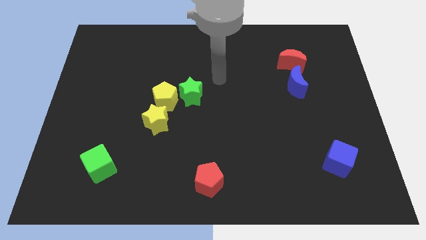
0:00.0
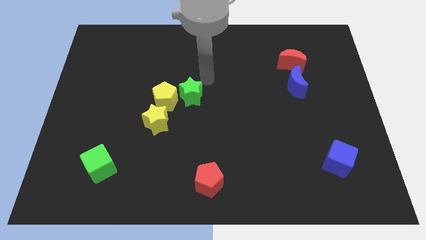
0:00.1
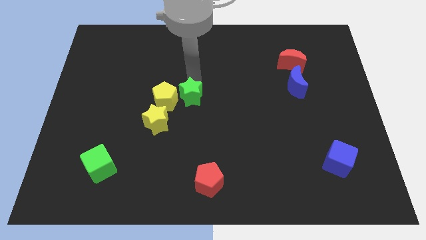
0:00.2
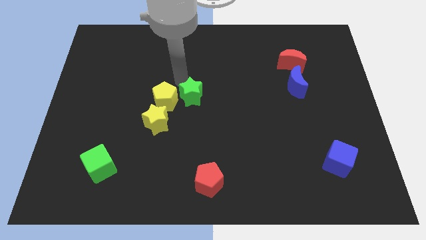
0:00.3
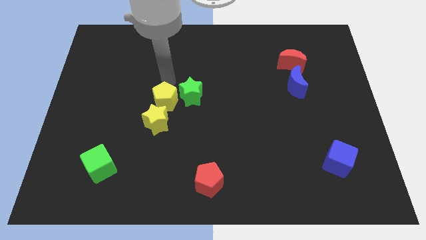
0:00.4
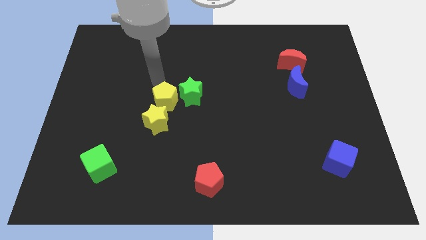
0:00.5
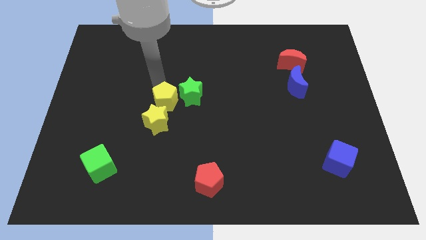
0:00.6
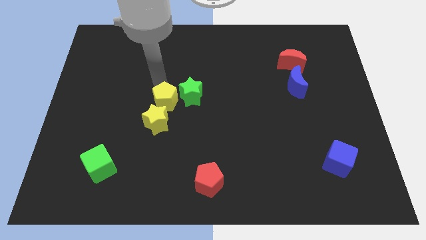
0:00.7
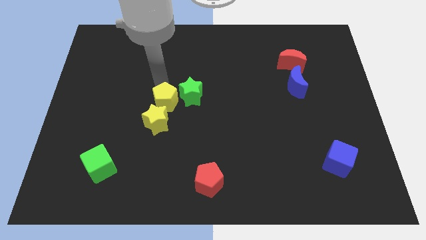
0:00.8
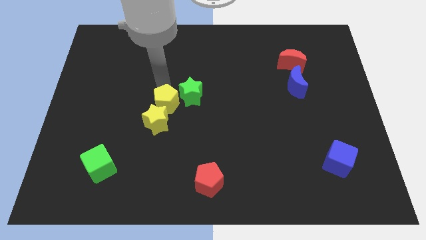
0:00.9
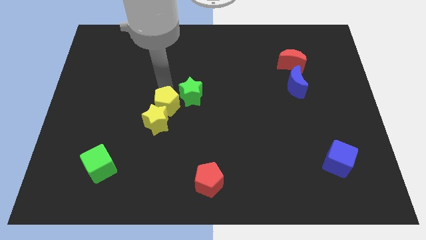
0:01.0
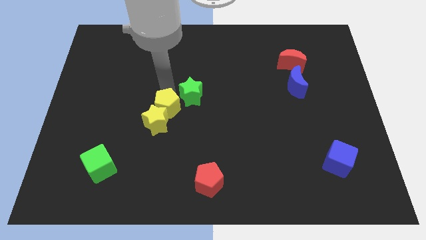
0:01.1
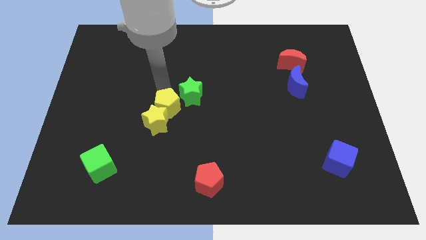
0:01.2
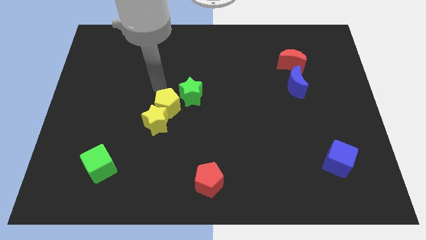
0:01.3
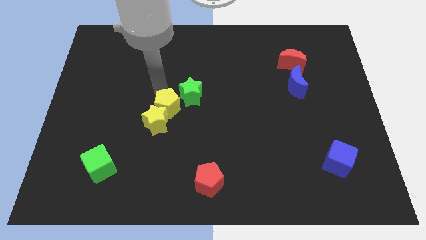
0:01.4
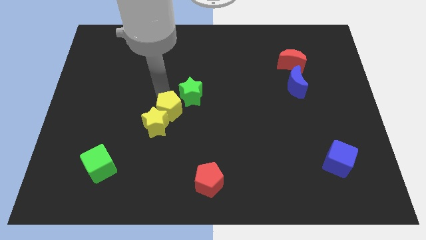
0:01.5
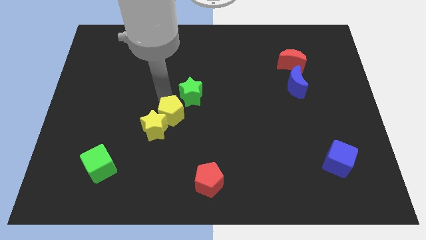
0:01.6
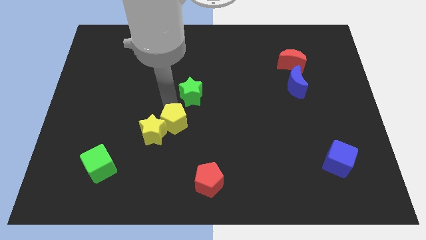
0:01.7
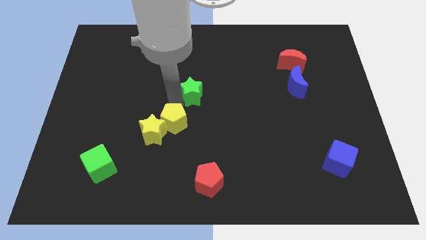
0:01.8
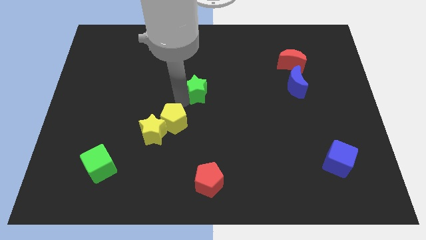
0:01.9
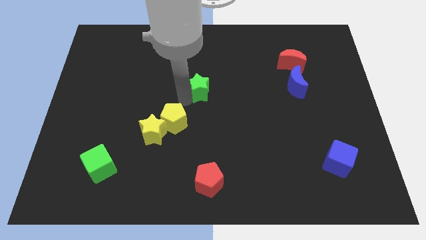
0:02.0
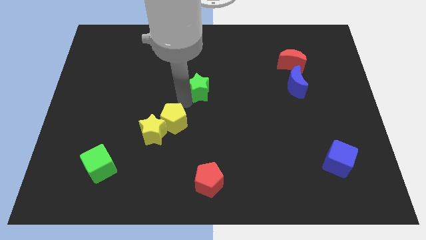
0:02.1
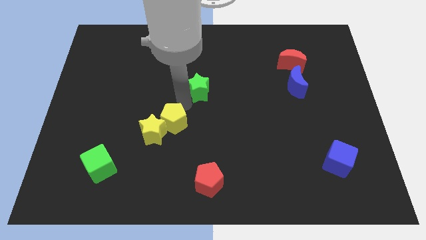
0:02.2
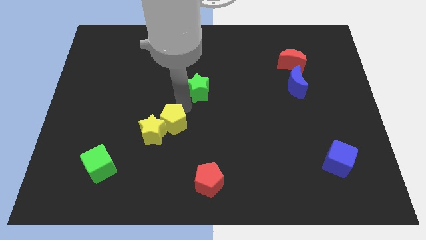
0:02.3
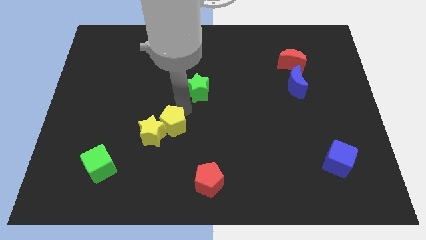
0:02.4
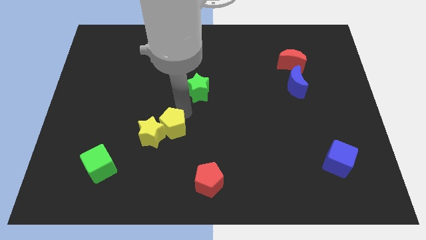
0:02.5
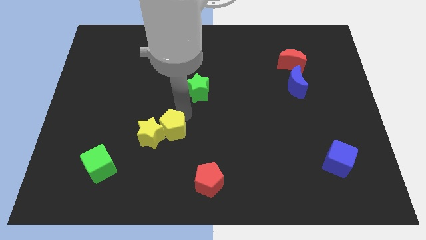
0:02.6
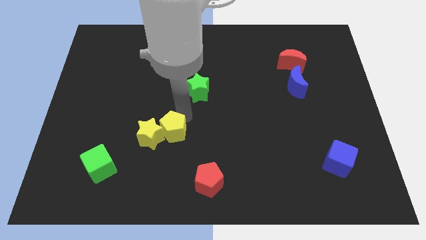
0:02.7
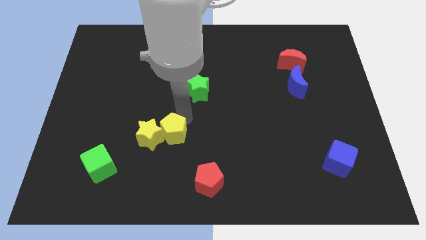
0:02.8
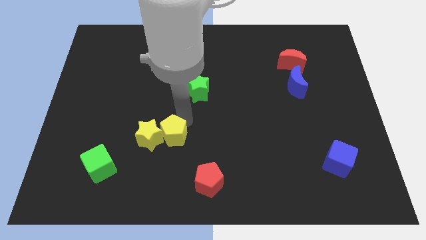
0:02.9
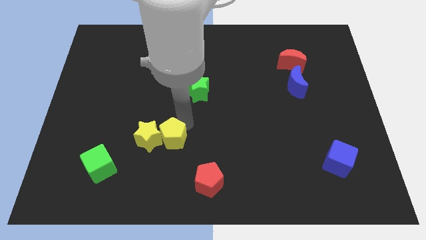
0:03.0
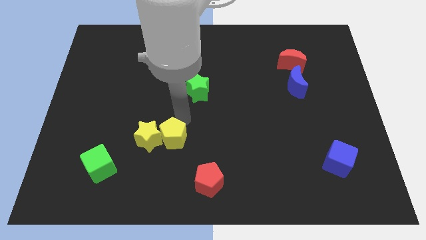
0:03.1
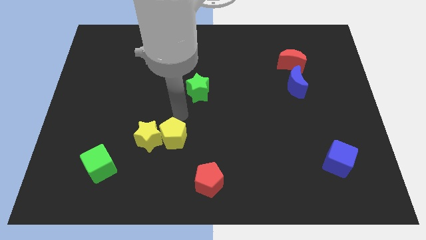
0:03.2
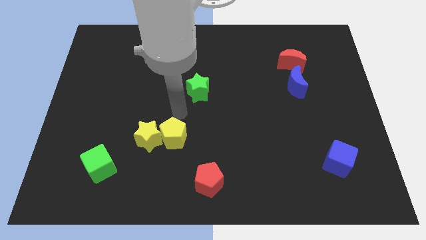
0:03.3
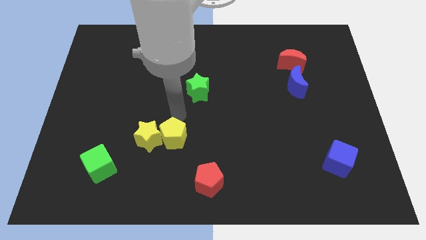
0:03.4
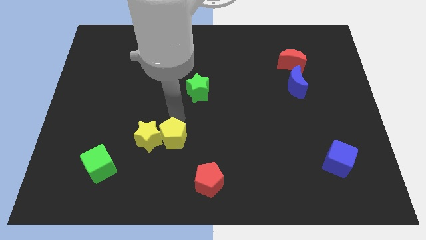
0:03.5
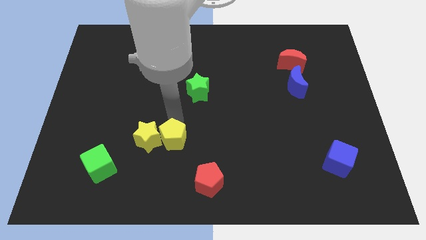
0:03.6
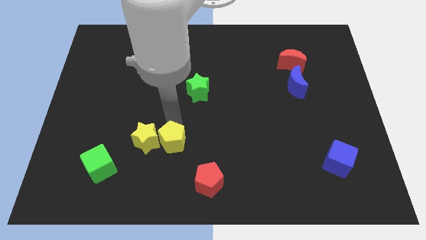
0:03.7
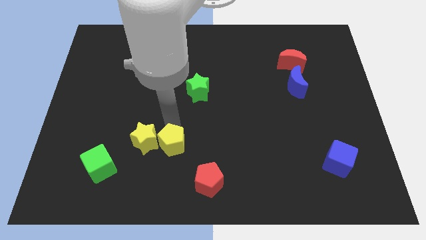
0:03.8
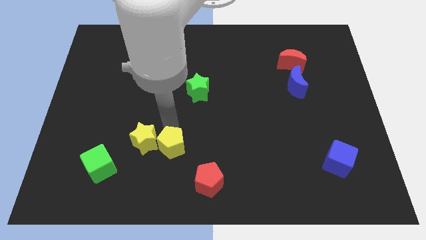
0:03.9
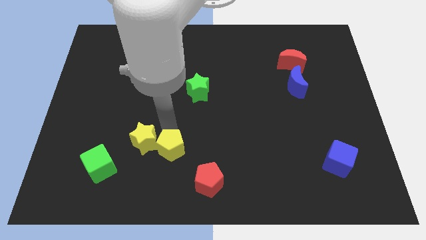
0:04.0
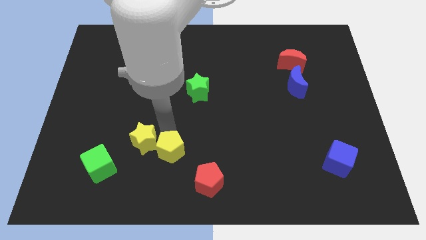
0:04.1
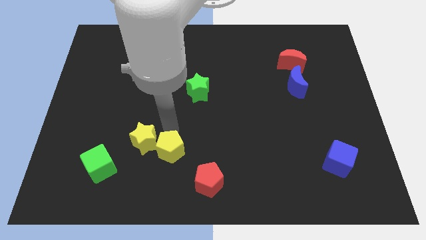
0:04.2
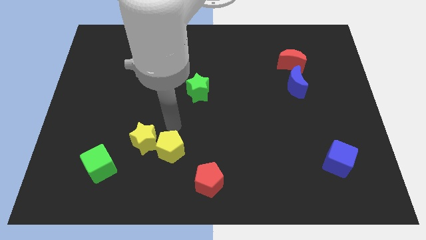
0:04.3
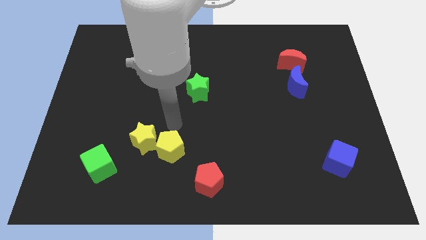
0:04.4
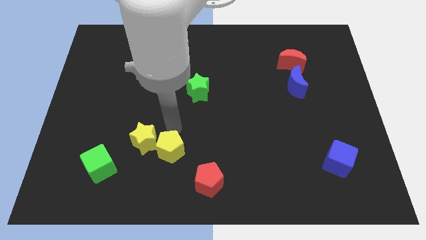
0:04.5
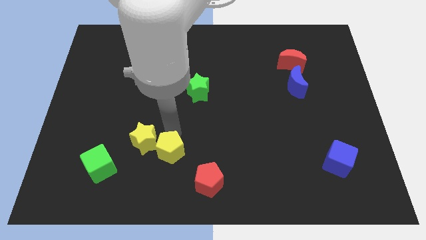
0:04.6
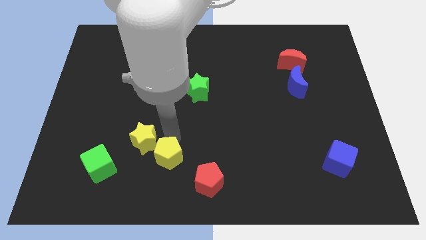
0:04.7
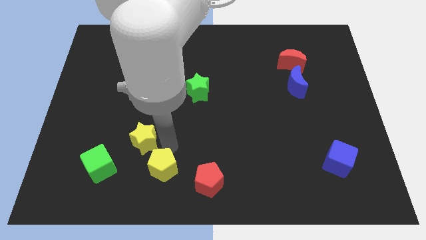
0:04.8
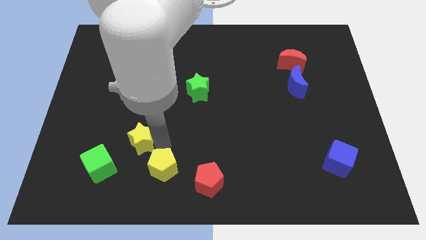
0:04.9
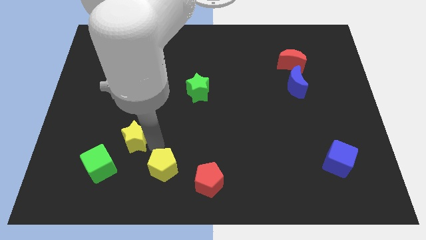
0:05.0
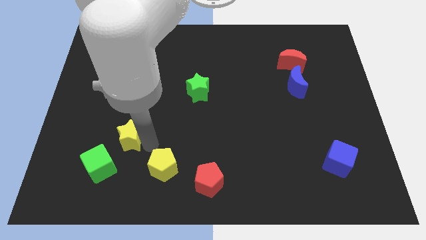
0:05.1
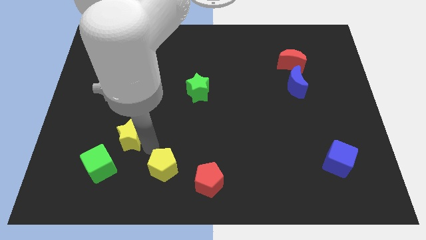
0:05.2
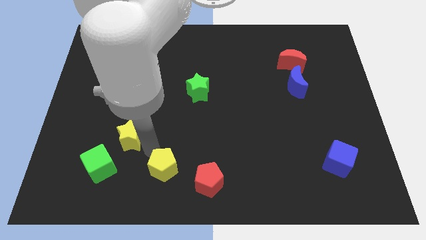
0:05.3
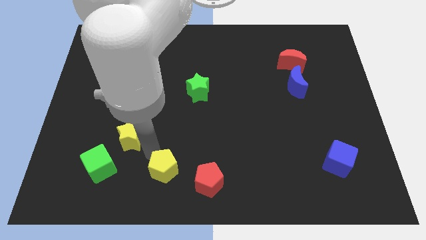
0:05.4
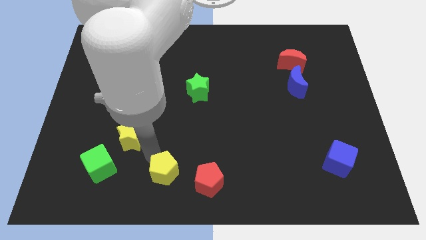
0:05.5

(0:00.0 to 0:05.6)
slide the yellow pentagon to the bottom side

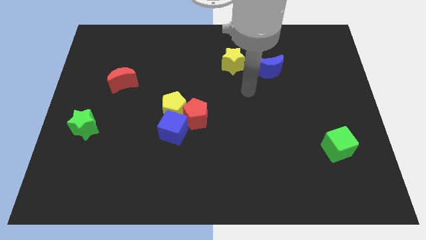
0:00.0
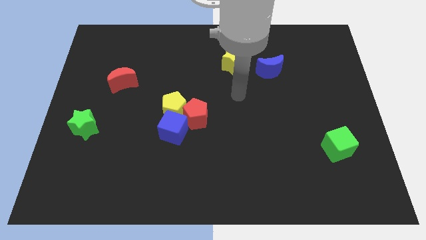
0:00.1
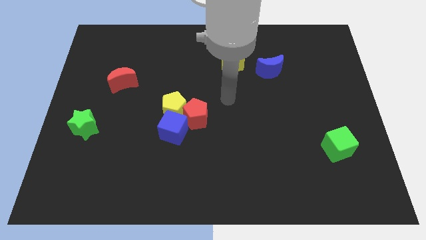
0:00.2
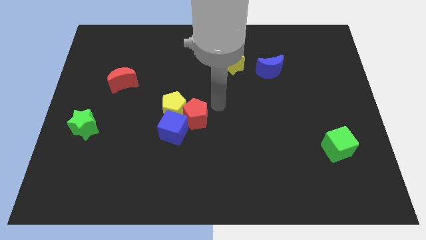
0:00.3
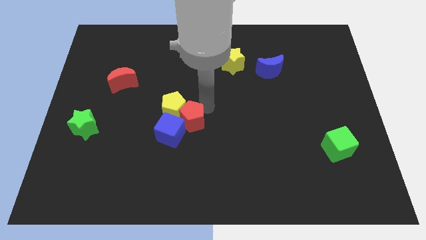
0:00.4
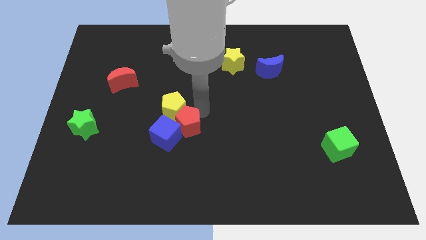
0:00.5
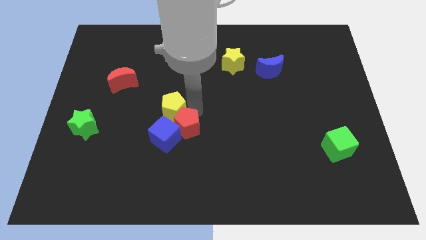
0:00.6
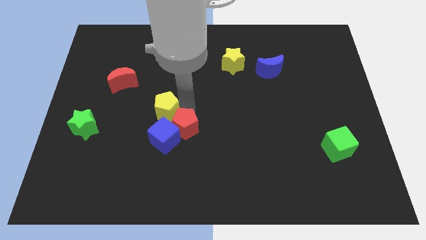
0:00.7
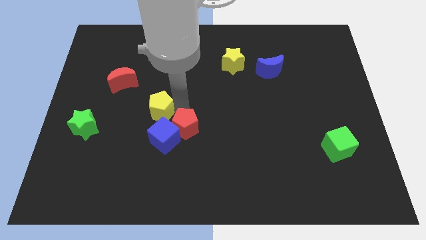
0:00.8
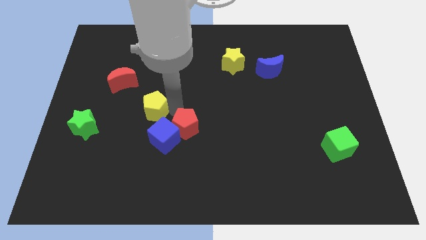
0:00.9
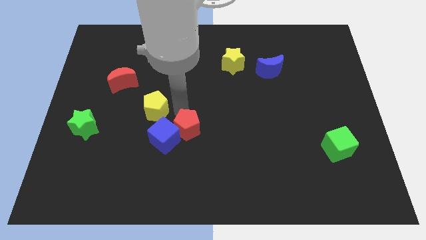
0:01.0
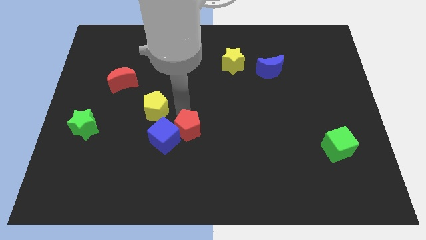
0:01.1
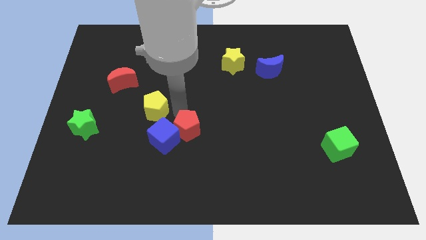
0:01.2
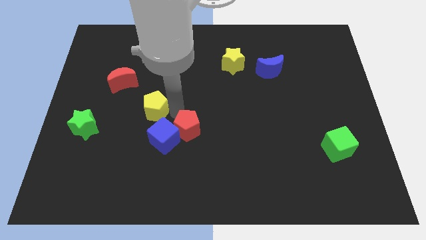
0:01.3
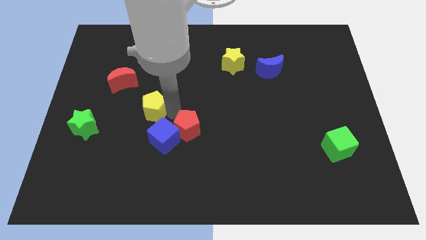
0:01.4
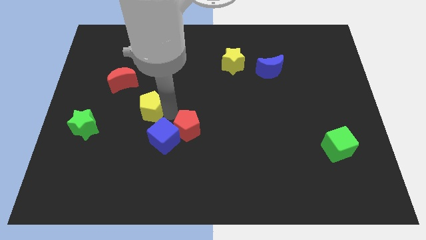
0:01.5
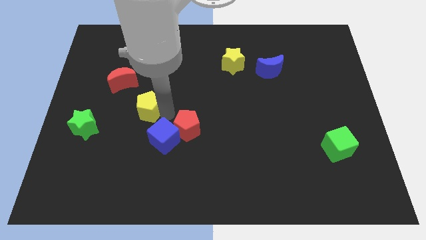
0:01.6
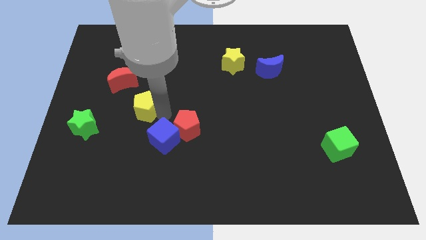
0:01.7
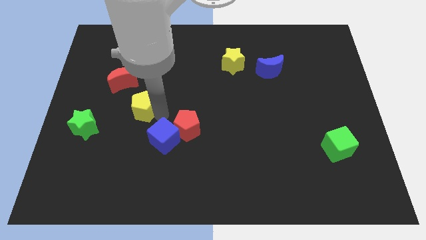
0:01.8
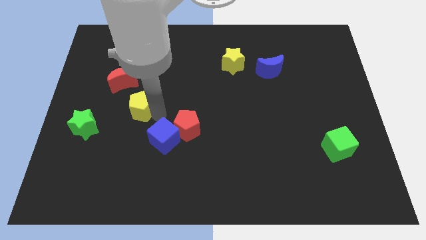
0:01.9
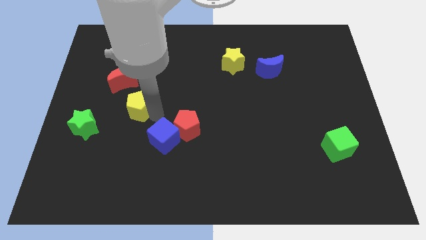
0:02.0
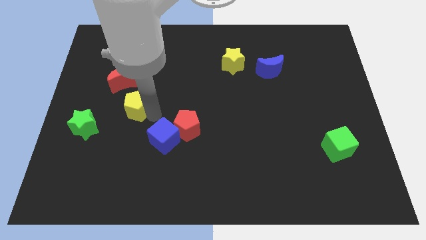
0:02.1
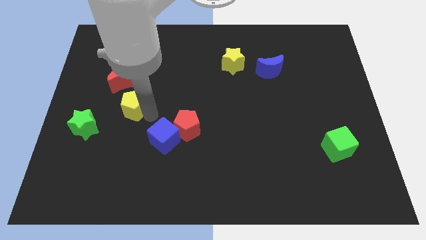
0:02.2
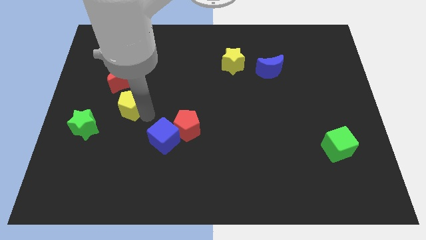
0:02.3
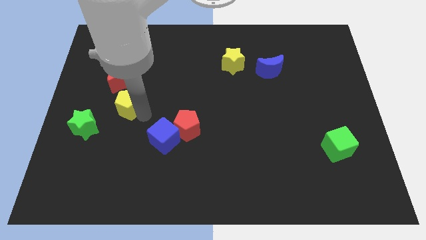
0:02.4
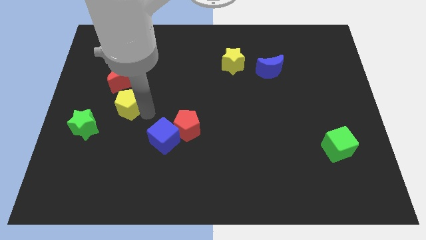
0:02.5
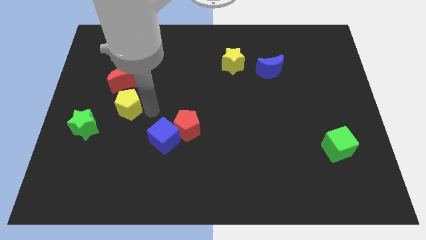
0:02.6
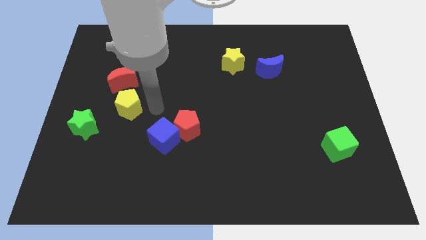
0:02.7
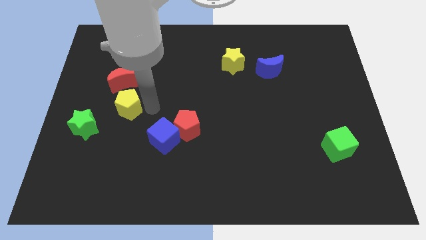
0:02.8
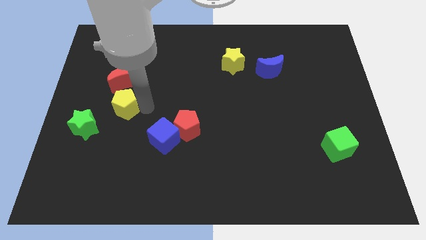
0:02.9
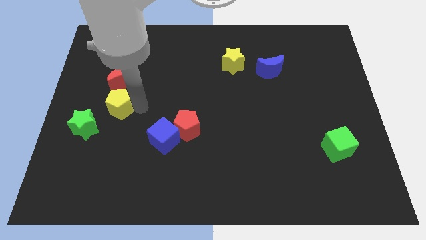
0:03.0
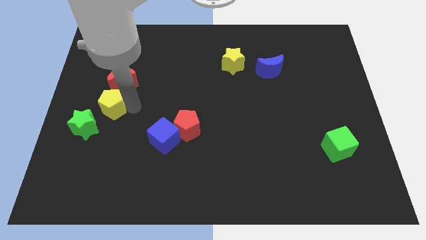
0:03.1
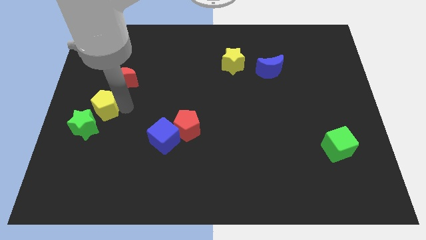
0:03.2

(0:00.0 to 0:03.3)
move the yellow pentagon to the center left
